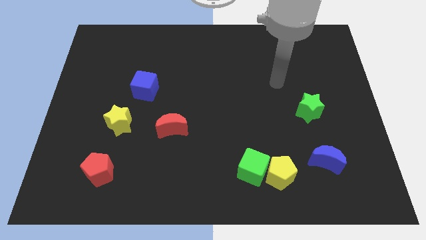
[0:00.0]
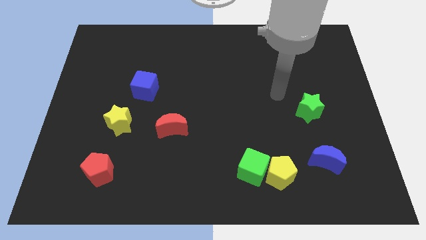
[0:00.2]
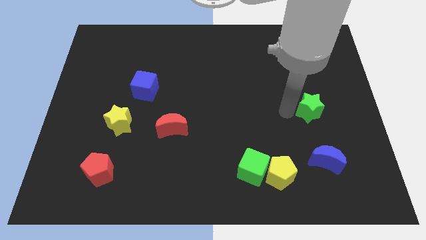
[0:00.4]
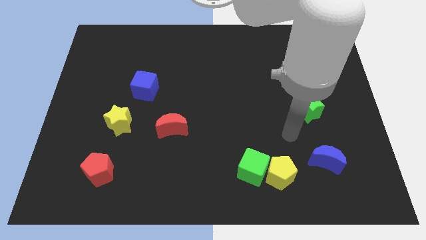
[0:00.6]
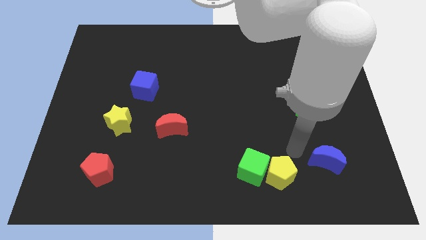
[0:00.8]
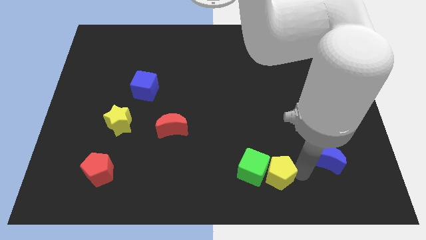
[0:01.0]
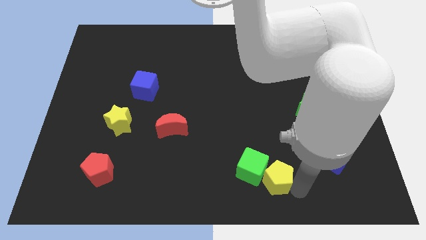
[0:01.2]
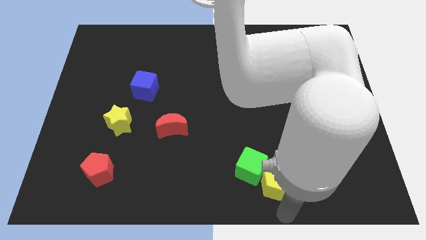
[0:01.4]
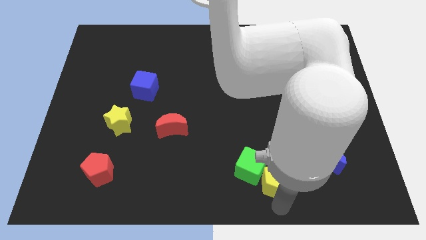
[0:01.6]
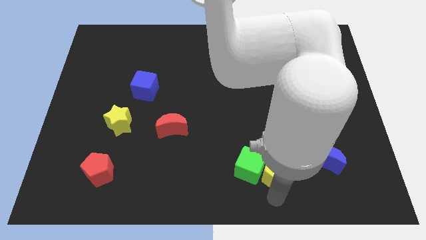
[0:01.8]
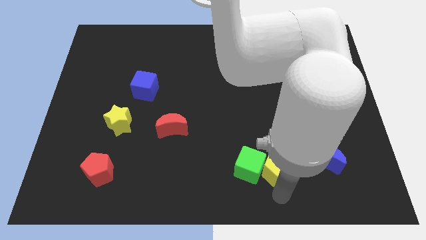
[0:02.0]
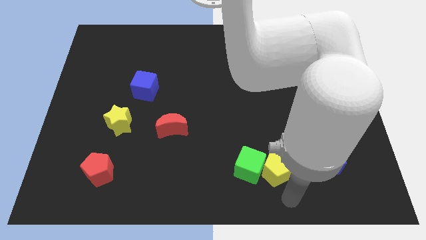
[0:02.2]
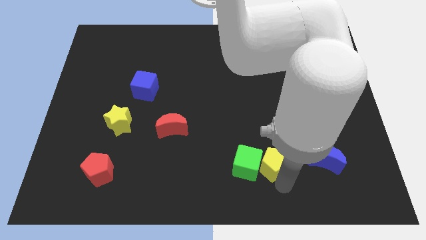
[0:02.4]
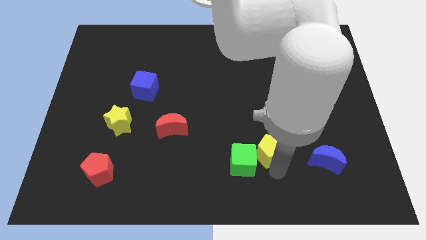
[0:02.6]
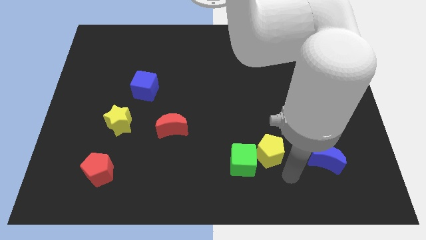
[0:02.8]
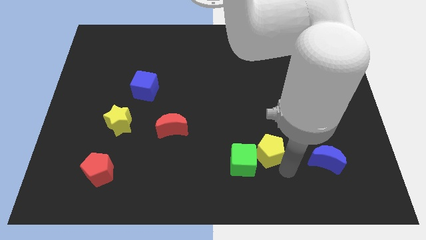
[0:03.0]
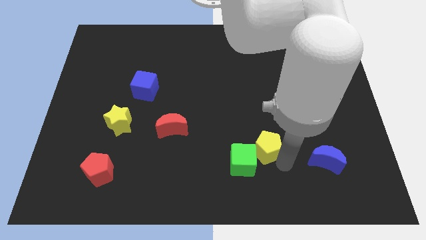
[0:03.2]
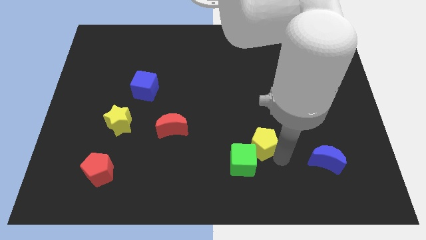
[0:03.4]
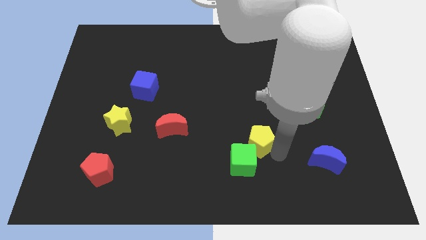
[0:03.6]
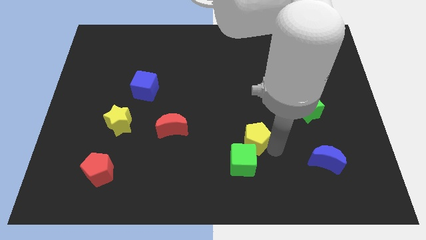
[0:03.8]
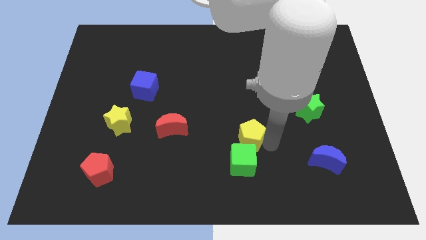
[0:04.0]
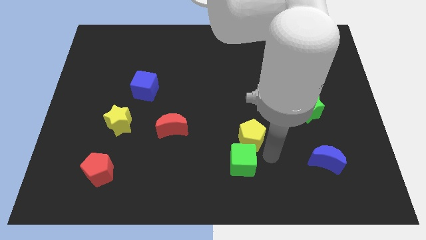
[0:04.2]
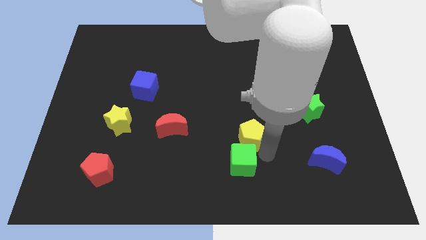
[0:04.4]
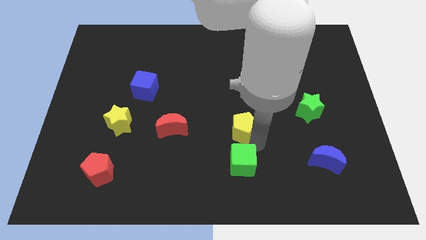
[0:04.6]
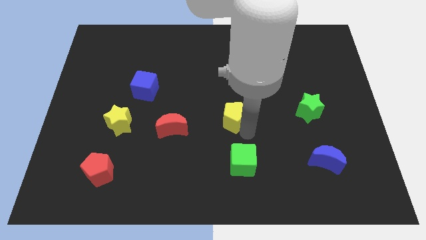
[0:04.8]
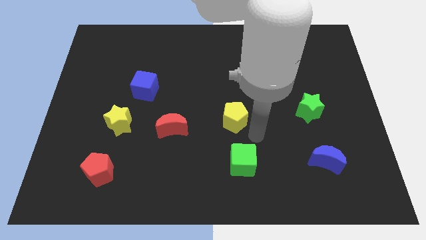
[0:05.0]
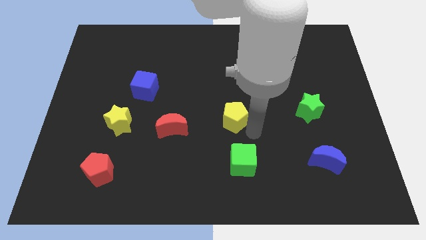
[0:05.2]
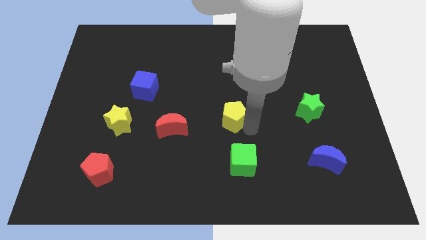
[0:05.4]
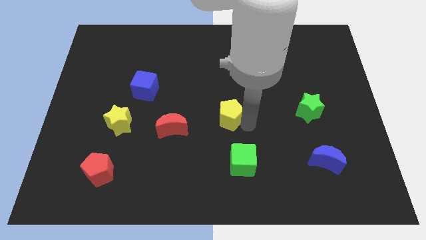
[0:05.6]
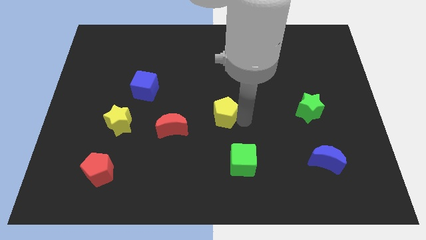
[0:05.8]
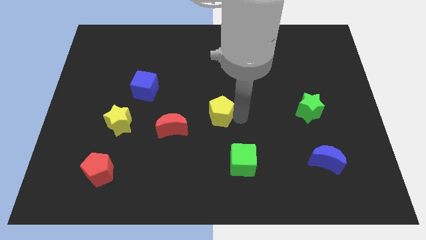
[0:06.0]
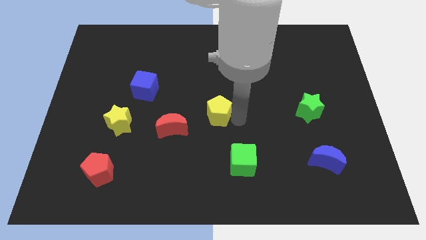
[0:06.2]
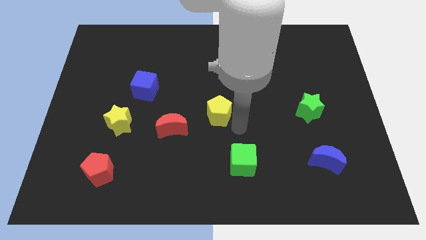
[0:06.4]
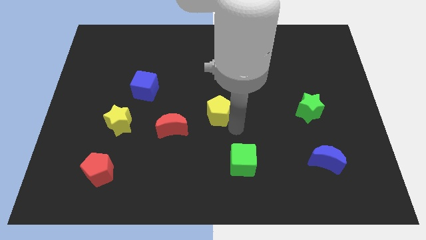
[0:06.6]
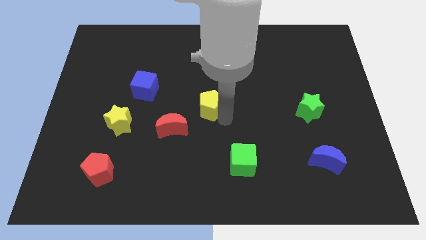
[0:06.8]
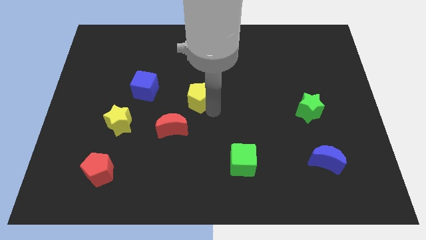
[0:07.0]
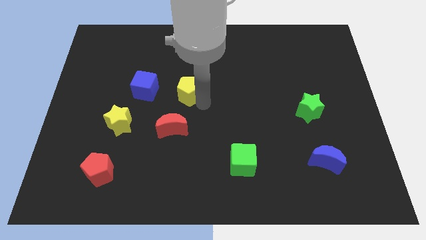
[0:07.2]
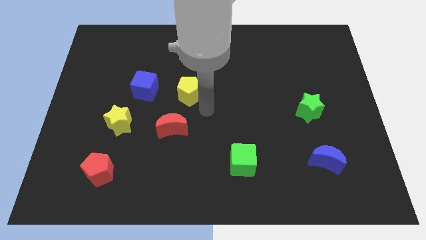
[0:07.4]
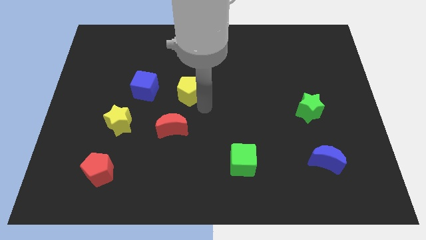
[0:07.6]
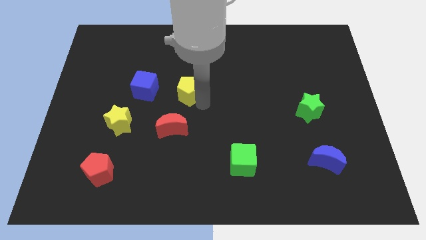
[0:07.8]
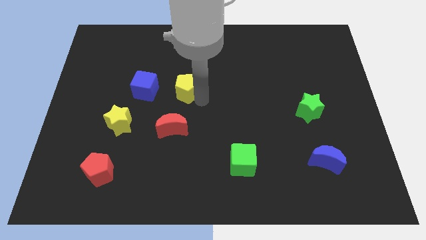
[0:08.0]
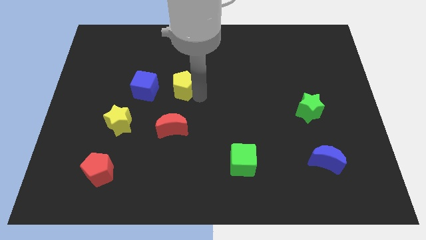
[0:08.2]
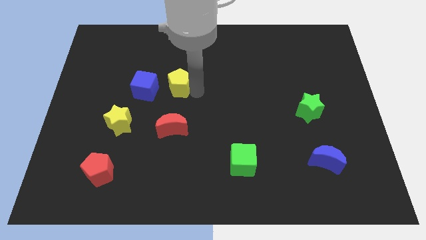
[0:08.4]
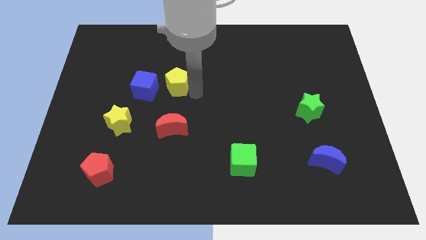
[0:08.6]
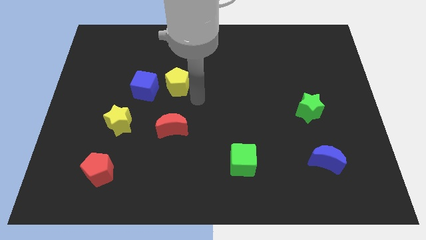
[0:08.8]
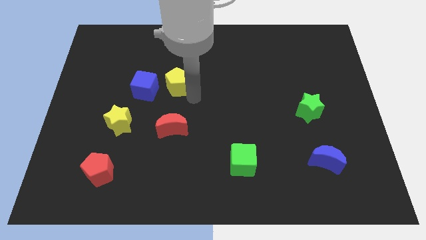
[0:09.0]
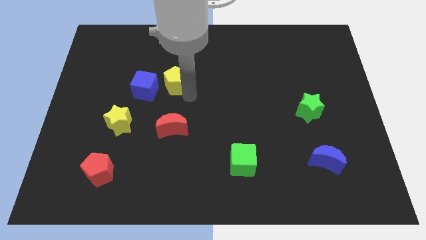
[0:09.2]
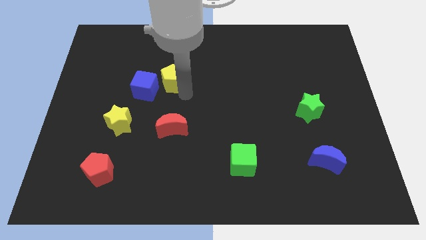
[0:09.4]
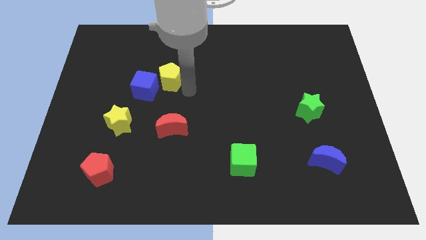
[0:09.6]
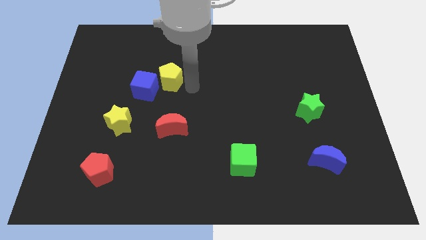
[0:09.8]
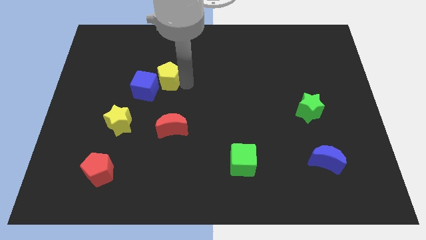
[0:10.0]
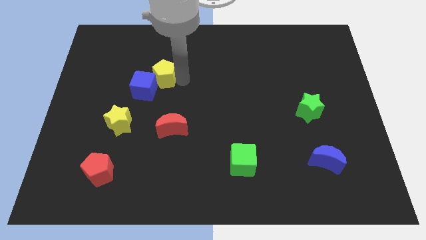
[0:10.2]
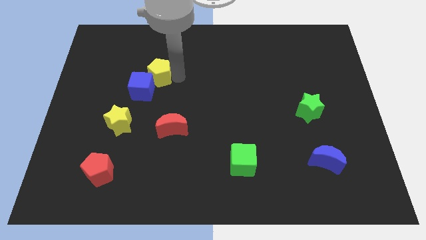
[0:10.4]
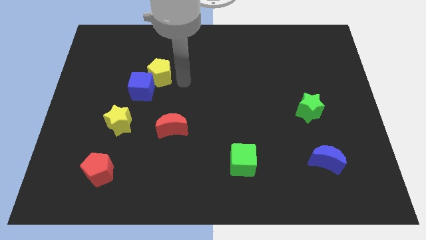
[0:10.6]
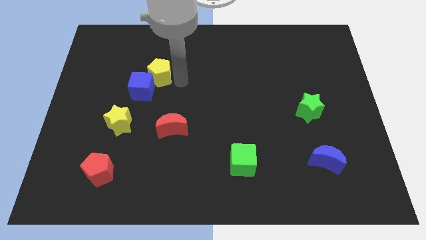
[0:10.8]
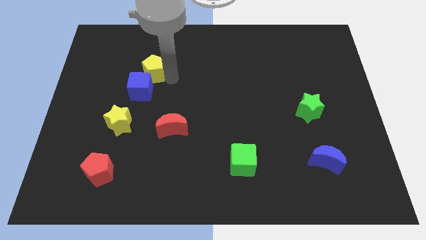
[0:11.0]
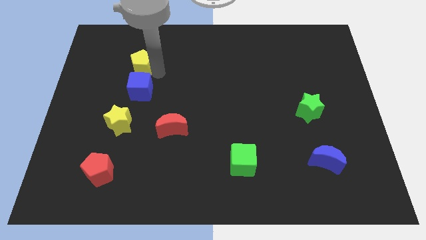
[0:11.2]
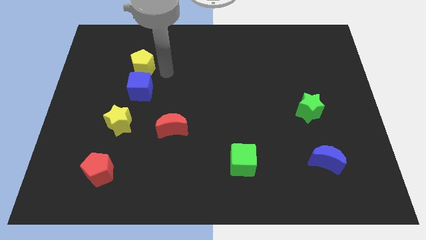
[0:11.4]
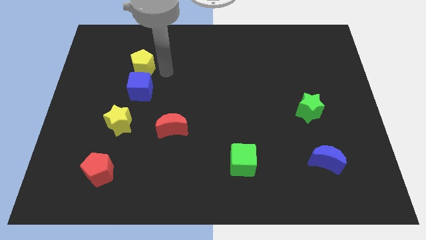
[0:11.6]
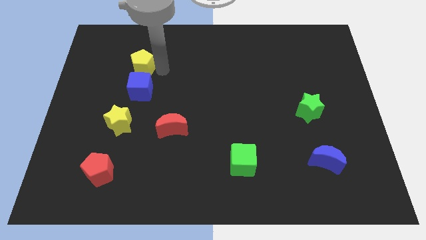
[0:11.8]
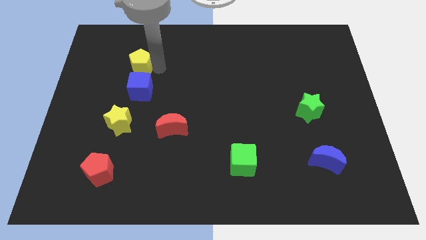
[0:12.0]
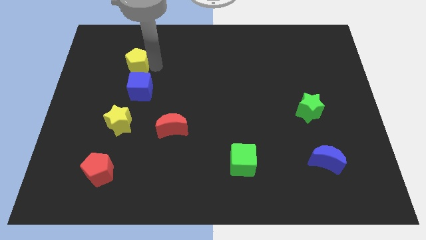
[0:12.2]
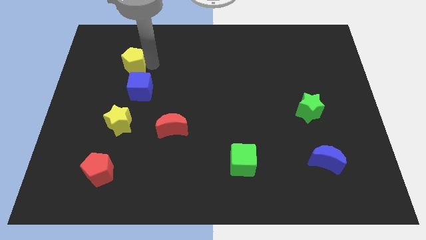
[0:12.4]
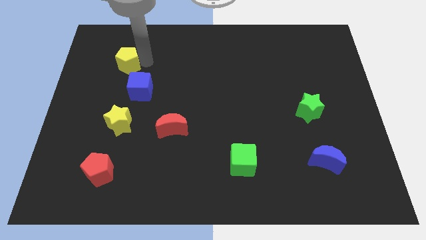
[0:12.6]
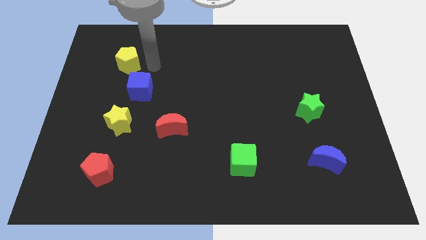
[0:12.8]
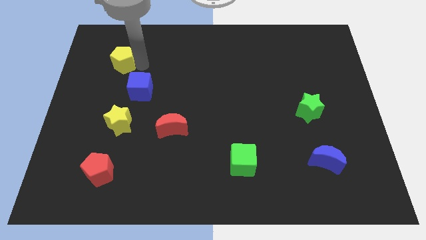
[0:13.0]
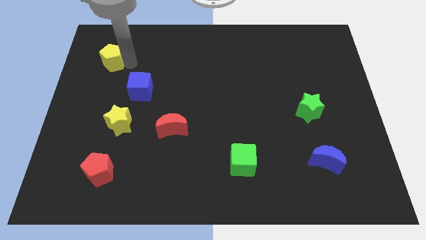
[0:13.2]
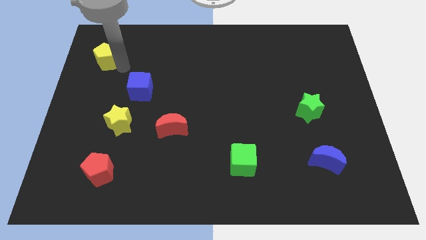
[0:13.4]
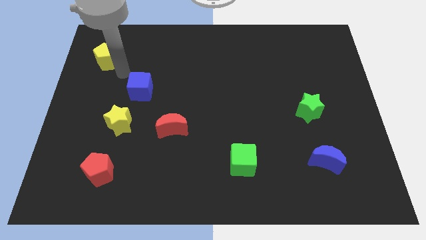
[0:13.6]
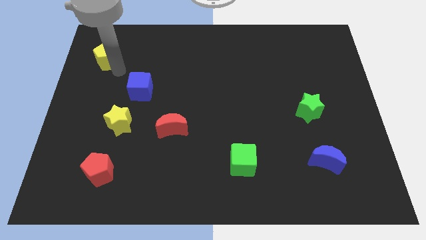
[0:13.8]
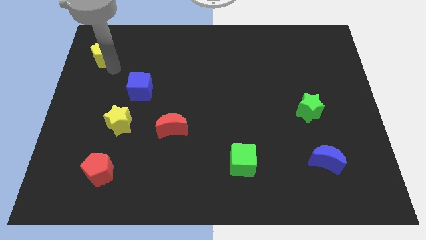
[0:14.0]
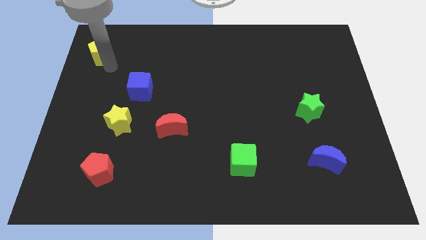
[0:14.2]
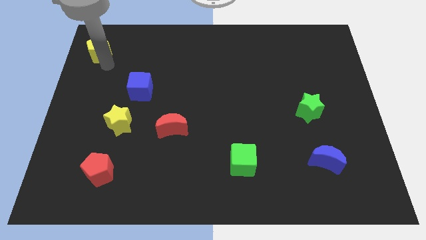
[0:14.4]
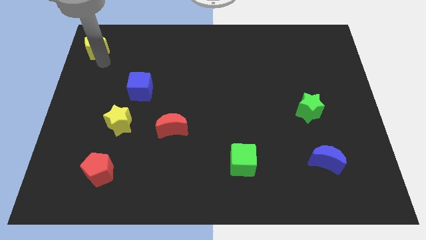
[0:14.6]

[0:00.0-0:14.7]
slide the yellow pentagon to the top left corner

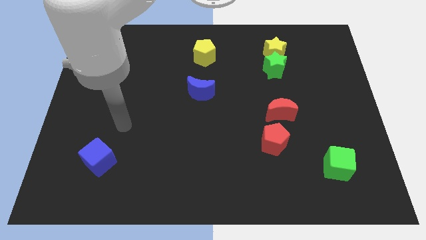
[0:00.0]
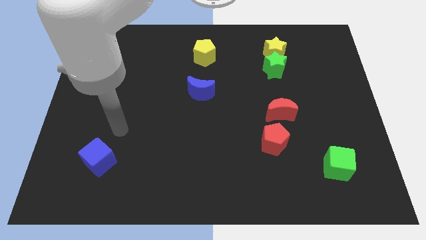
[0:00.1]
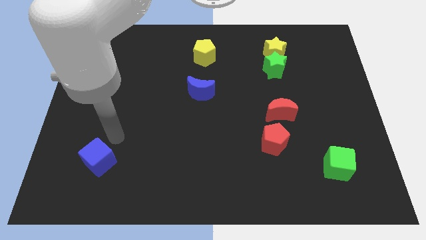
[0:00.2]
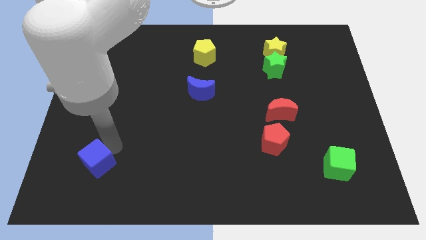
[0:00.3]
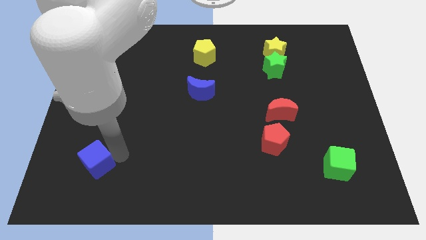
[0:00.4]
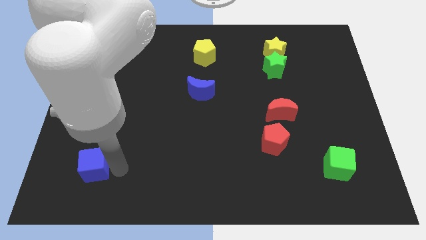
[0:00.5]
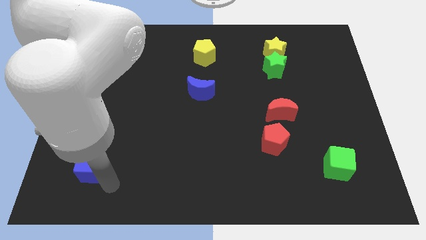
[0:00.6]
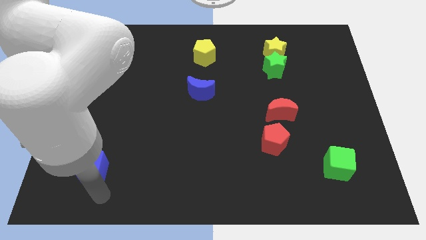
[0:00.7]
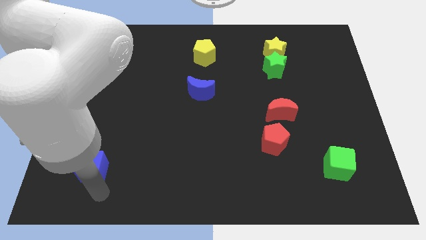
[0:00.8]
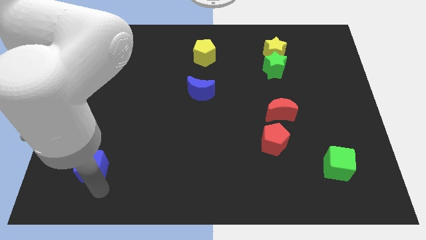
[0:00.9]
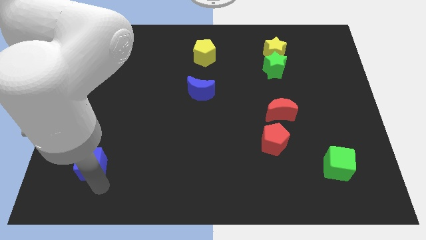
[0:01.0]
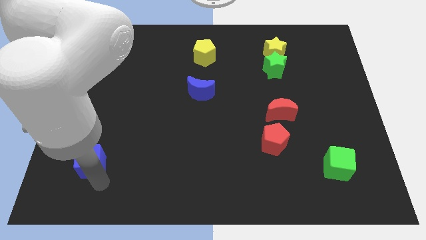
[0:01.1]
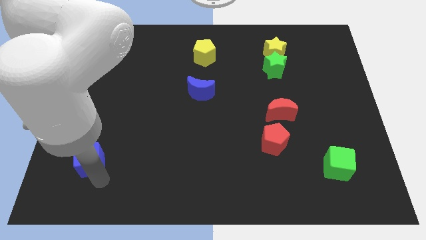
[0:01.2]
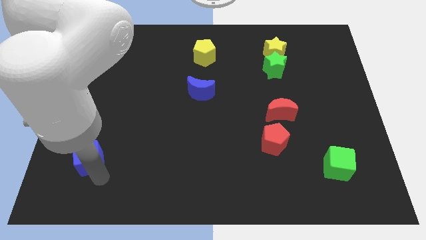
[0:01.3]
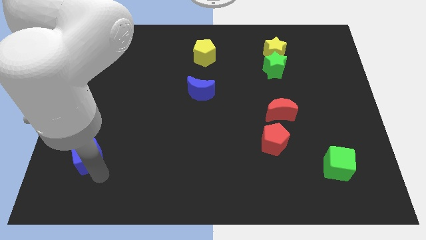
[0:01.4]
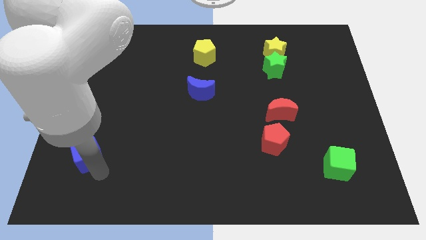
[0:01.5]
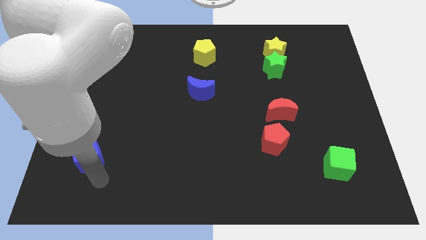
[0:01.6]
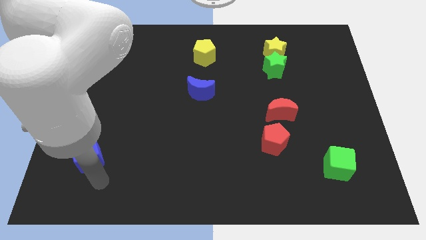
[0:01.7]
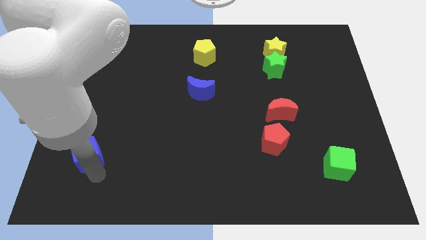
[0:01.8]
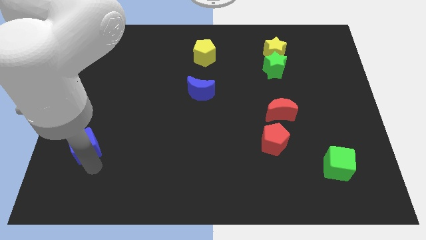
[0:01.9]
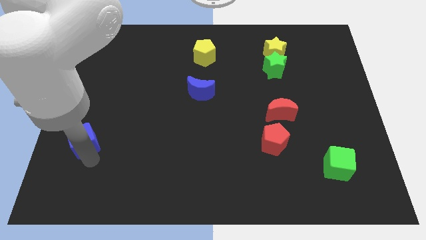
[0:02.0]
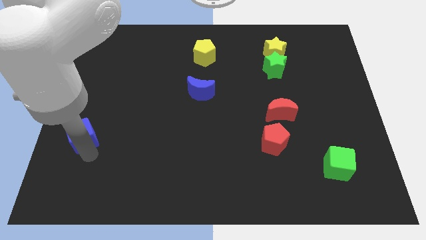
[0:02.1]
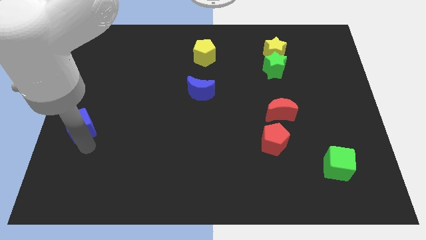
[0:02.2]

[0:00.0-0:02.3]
move the blue cube to the left side
